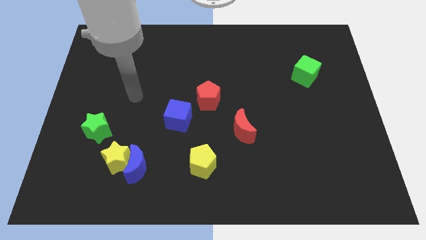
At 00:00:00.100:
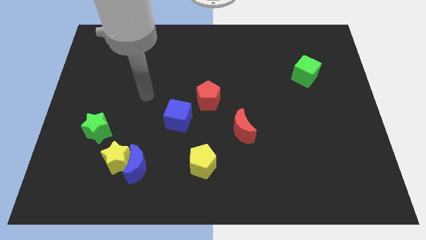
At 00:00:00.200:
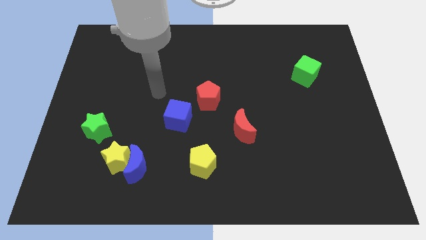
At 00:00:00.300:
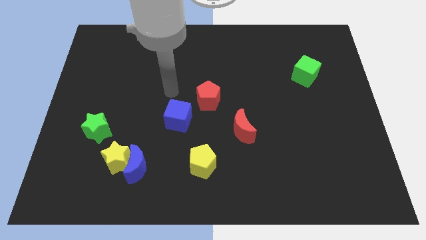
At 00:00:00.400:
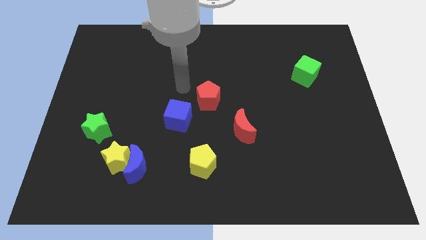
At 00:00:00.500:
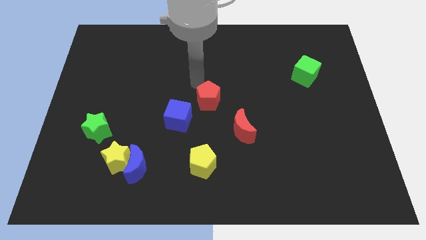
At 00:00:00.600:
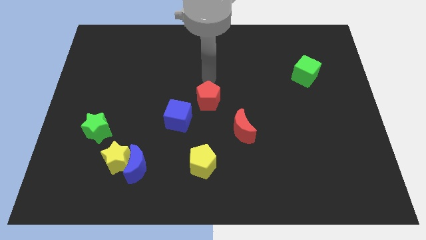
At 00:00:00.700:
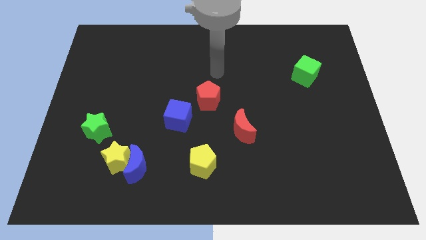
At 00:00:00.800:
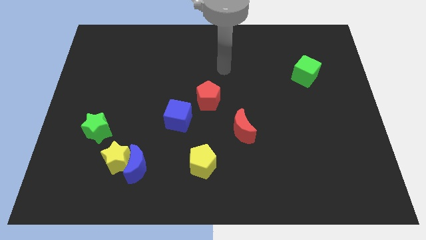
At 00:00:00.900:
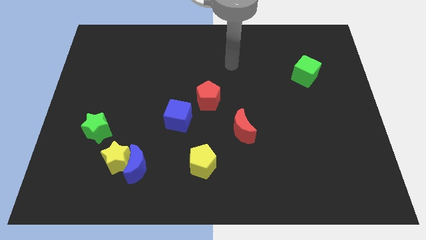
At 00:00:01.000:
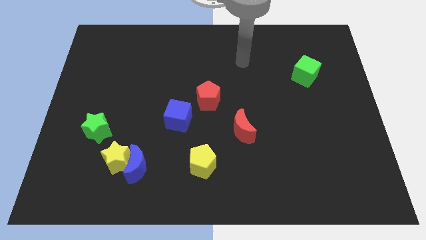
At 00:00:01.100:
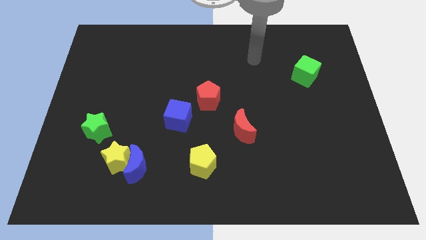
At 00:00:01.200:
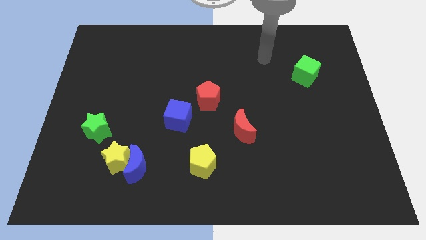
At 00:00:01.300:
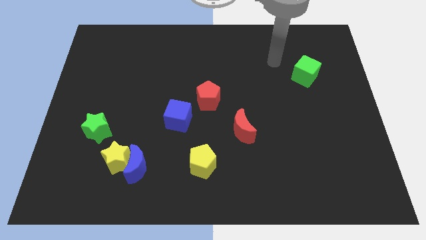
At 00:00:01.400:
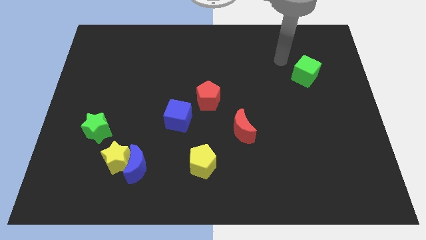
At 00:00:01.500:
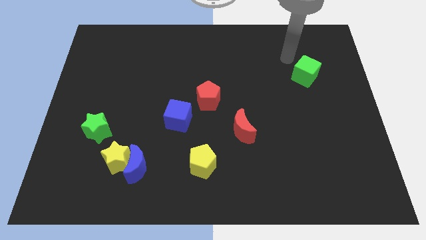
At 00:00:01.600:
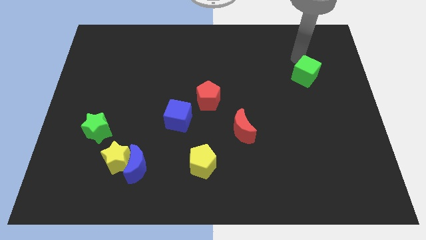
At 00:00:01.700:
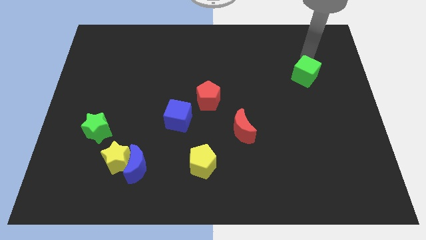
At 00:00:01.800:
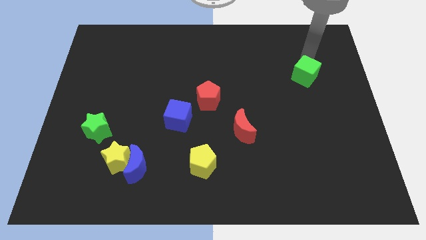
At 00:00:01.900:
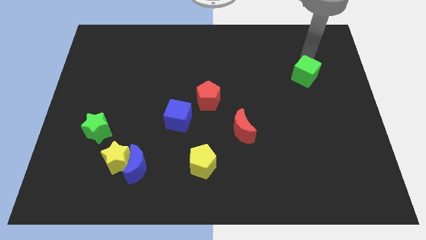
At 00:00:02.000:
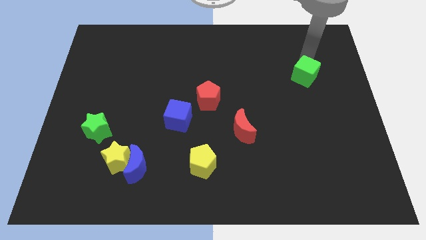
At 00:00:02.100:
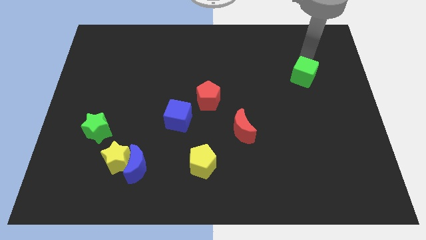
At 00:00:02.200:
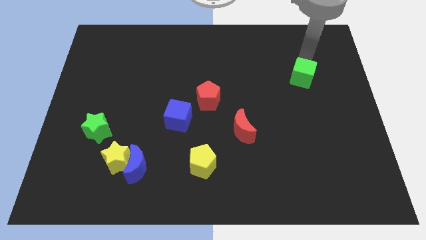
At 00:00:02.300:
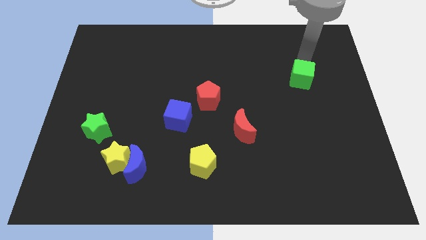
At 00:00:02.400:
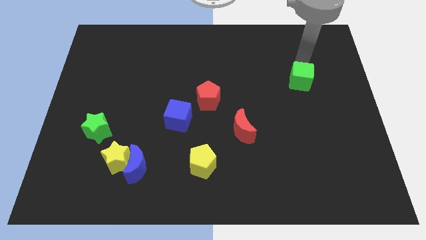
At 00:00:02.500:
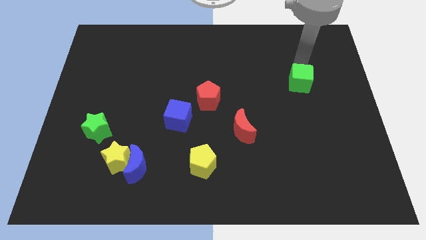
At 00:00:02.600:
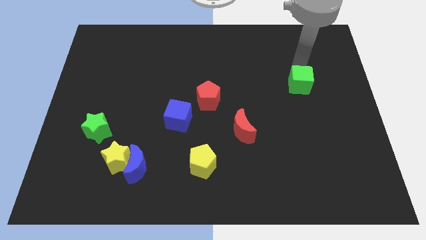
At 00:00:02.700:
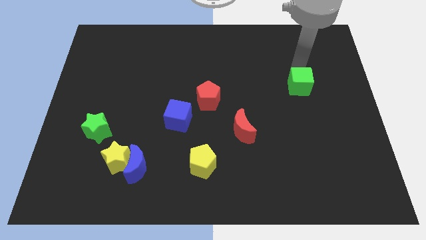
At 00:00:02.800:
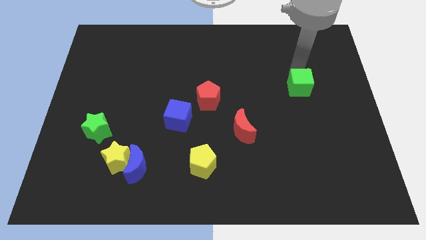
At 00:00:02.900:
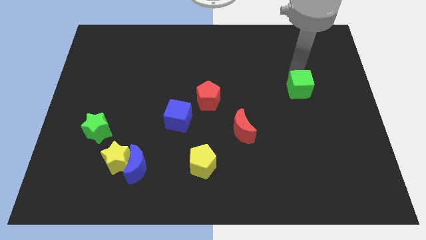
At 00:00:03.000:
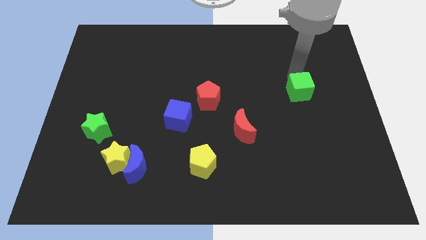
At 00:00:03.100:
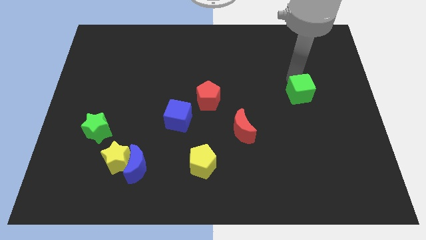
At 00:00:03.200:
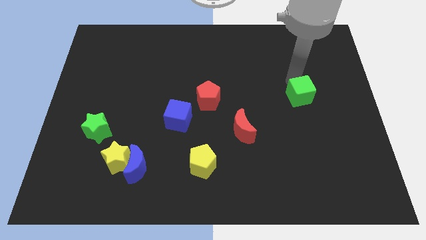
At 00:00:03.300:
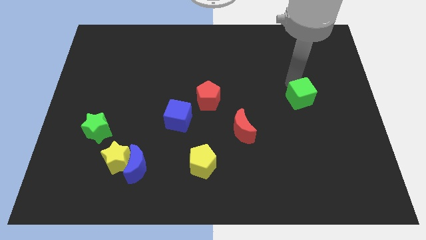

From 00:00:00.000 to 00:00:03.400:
slightly move the green cube downwards

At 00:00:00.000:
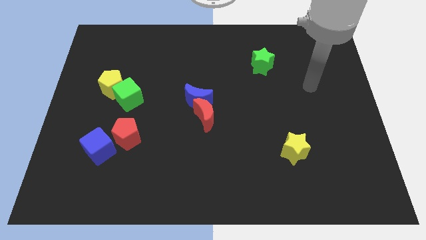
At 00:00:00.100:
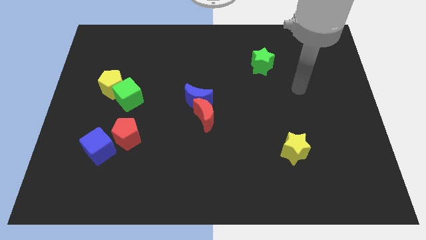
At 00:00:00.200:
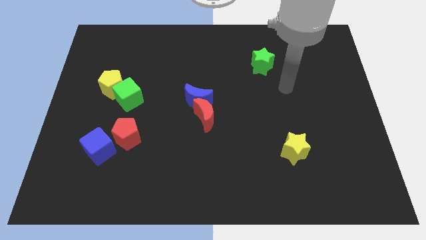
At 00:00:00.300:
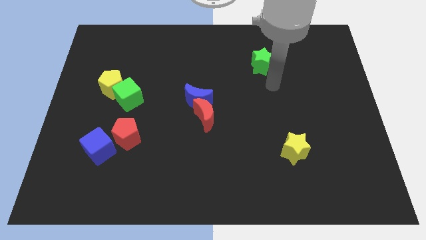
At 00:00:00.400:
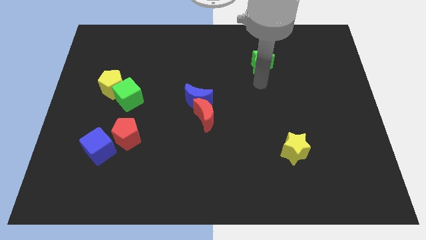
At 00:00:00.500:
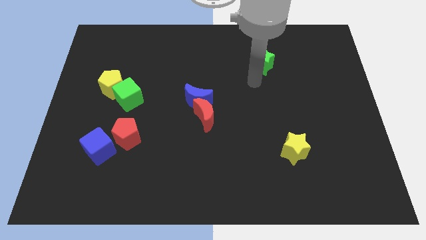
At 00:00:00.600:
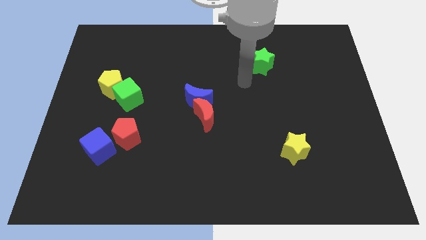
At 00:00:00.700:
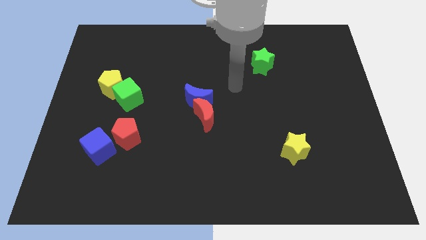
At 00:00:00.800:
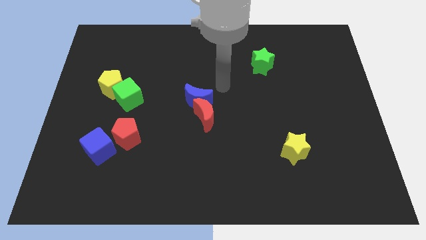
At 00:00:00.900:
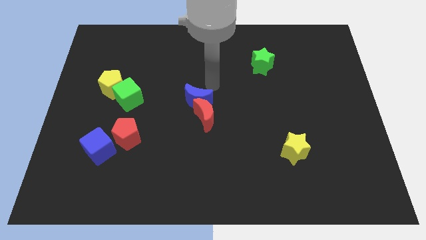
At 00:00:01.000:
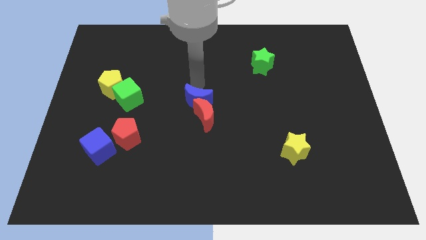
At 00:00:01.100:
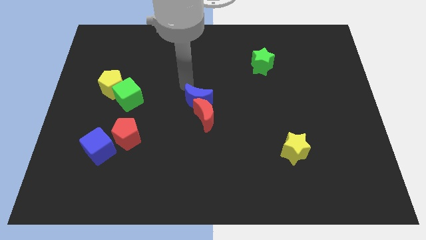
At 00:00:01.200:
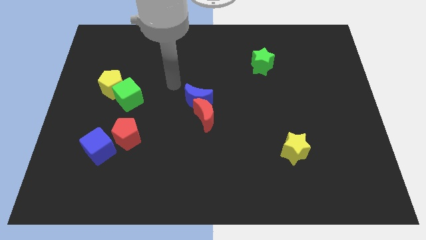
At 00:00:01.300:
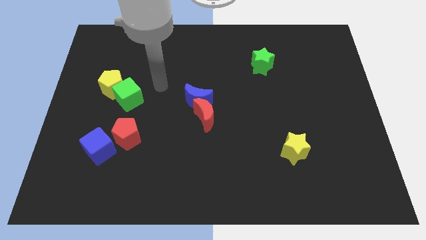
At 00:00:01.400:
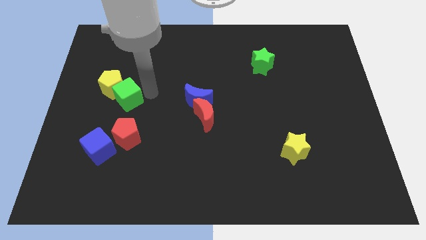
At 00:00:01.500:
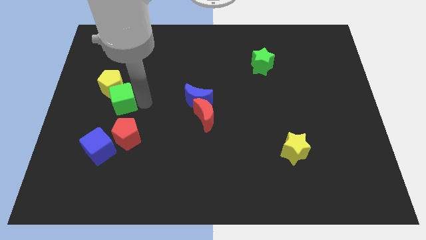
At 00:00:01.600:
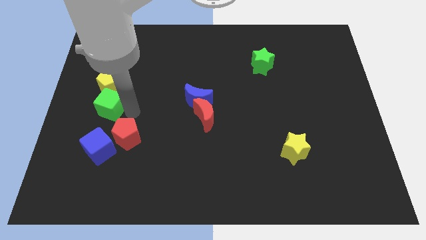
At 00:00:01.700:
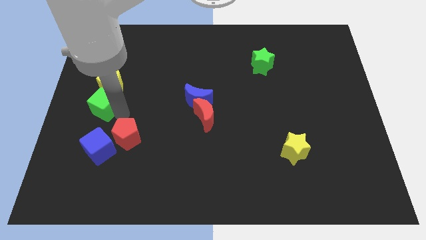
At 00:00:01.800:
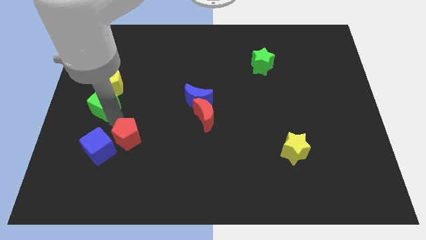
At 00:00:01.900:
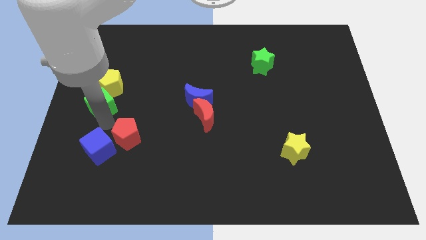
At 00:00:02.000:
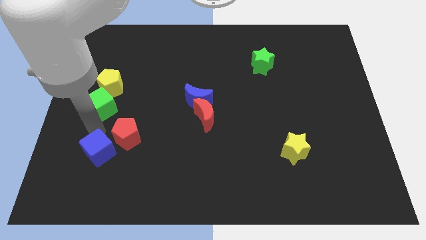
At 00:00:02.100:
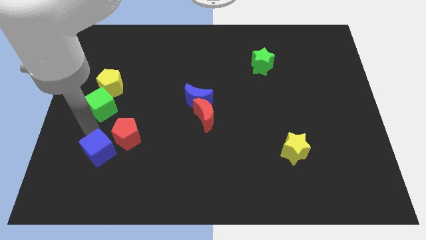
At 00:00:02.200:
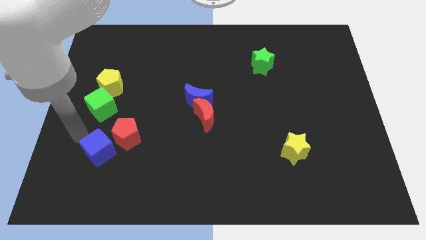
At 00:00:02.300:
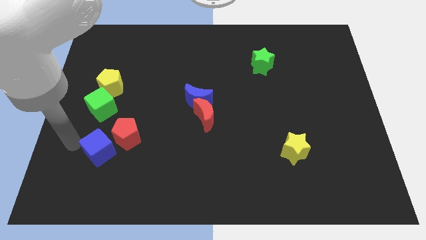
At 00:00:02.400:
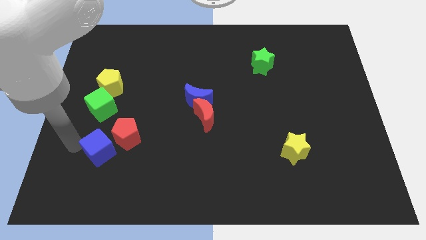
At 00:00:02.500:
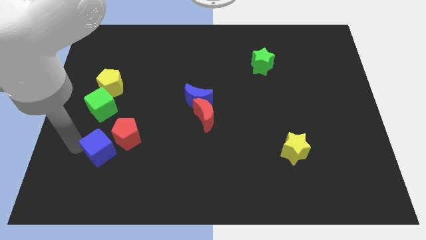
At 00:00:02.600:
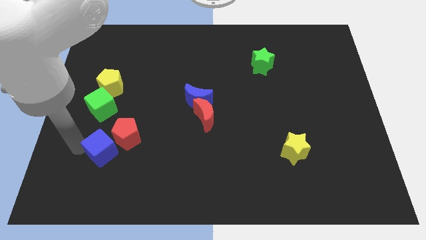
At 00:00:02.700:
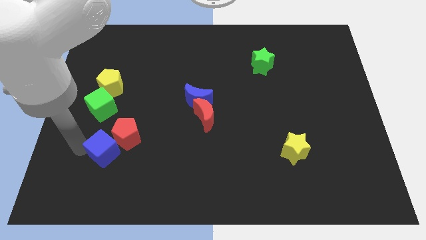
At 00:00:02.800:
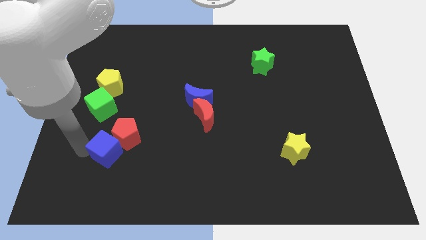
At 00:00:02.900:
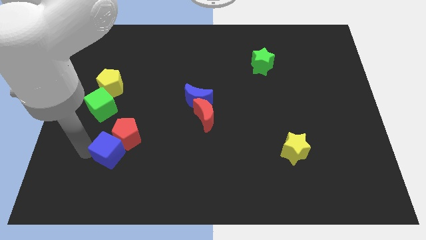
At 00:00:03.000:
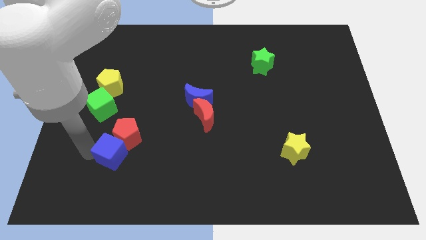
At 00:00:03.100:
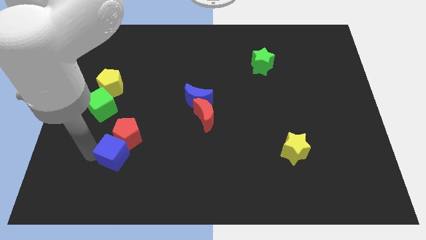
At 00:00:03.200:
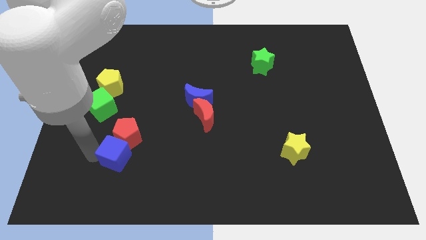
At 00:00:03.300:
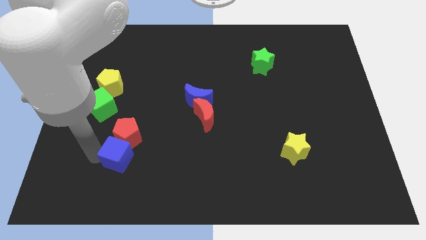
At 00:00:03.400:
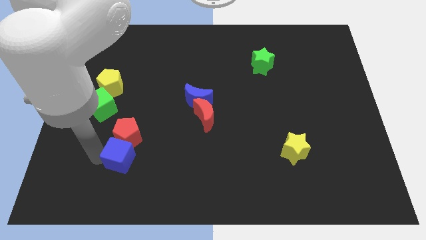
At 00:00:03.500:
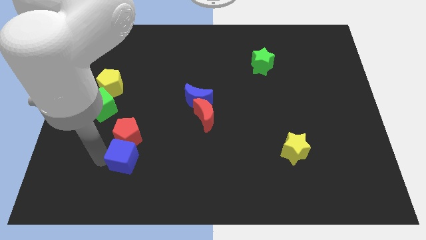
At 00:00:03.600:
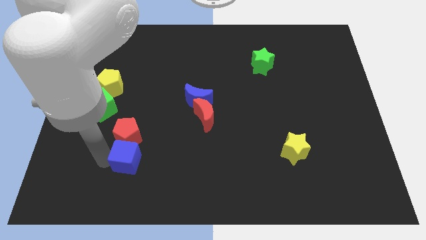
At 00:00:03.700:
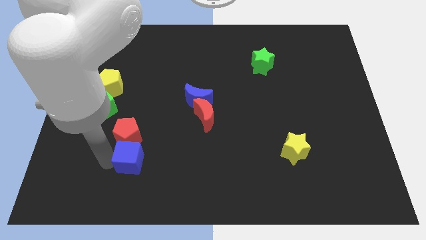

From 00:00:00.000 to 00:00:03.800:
move the blue cube slightly right

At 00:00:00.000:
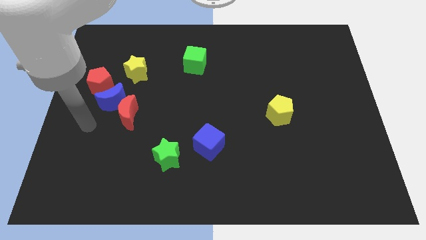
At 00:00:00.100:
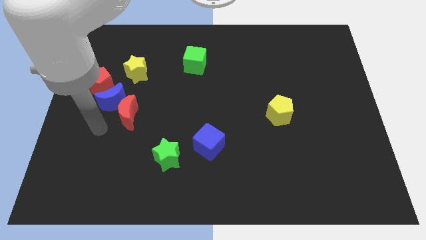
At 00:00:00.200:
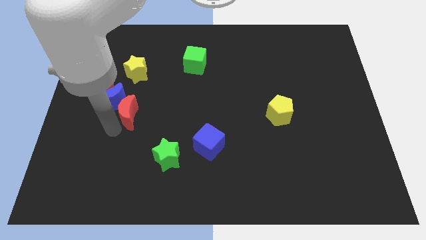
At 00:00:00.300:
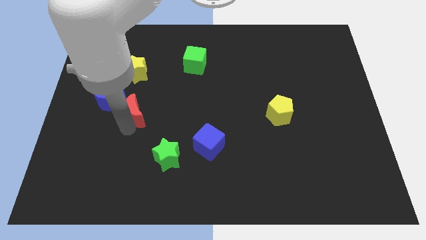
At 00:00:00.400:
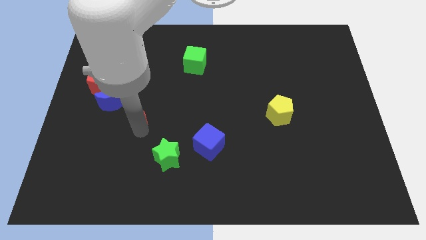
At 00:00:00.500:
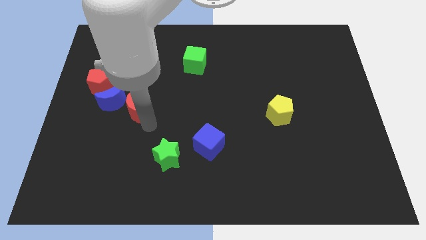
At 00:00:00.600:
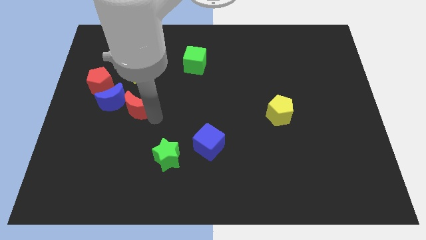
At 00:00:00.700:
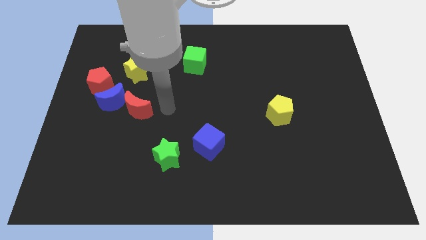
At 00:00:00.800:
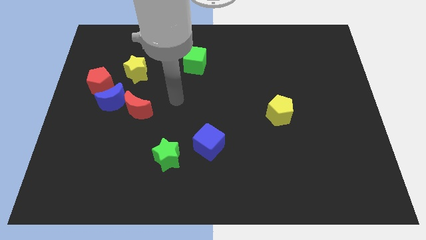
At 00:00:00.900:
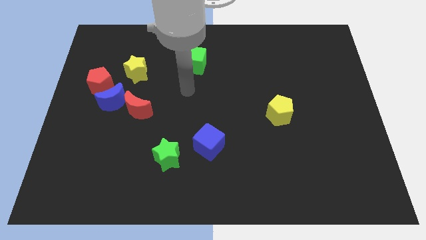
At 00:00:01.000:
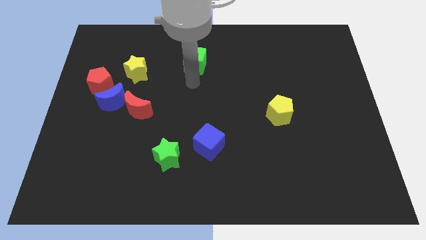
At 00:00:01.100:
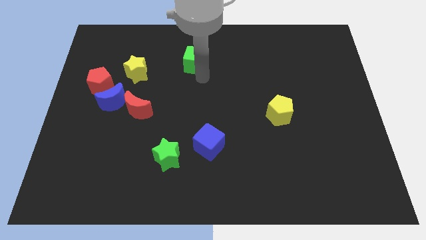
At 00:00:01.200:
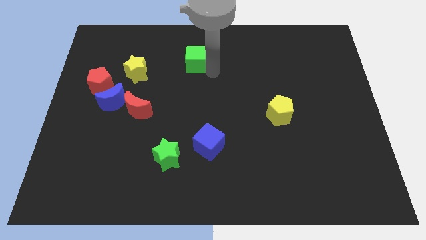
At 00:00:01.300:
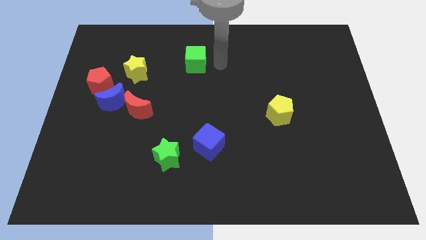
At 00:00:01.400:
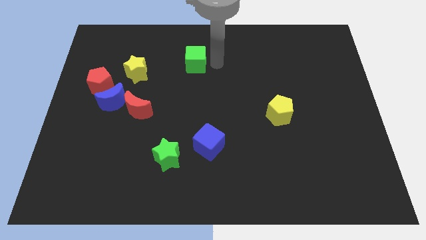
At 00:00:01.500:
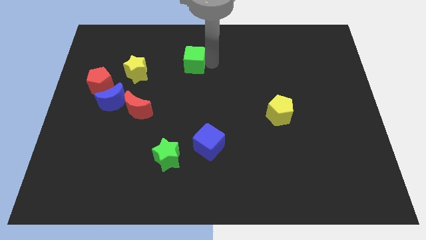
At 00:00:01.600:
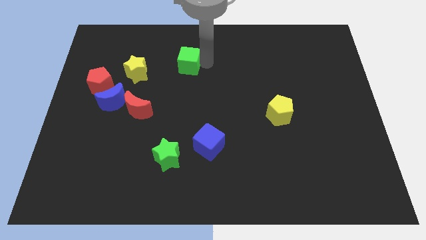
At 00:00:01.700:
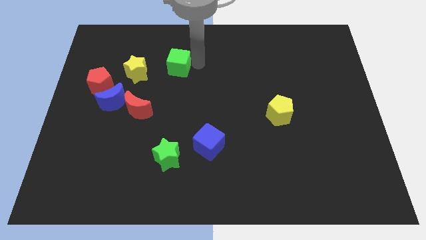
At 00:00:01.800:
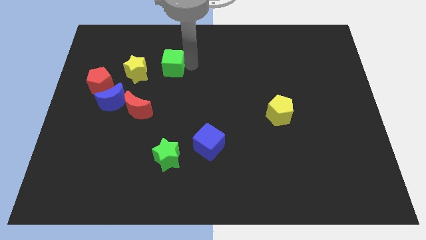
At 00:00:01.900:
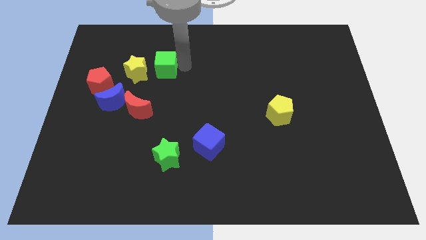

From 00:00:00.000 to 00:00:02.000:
move the green cube to the left a bit
